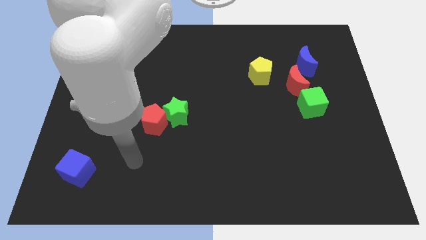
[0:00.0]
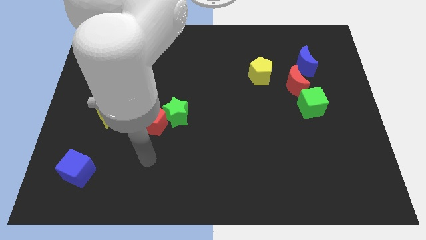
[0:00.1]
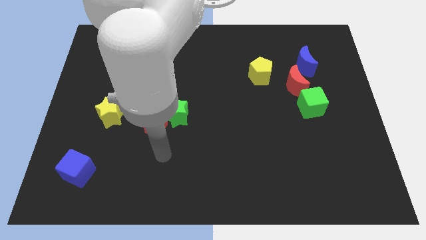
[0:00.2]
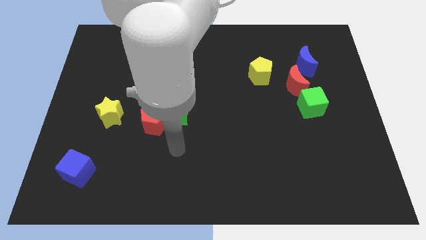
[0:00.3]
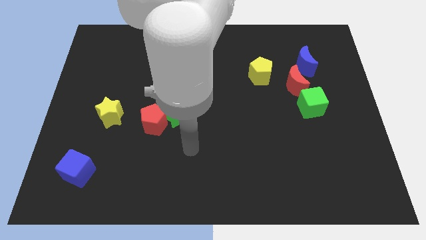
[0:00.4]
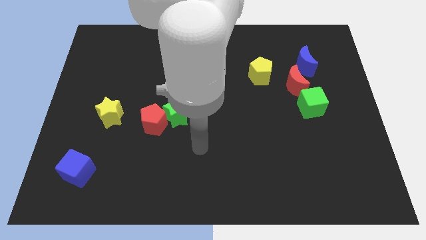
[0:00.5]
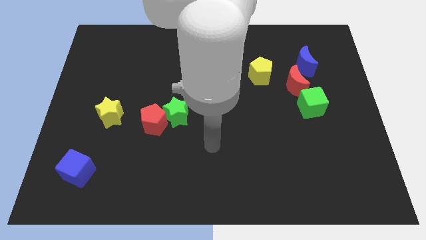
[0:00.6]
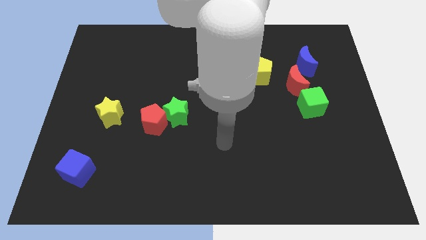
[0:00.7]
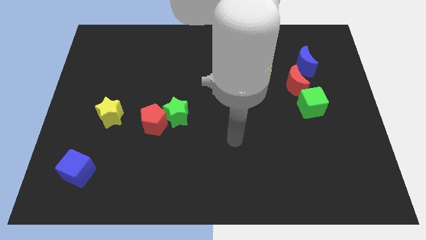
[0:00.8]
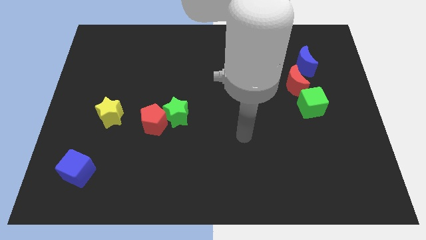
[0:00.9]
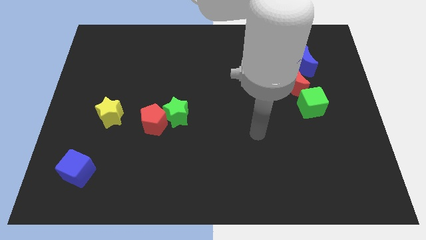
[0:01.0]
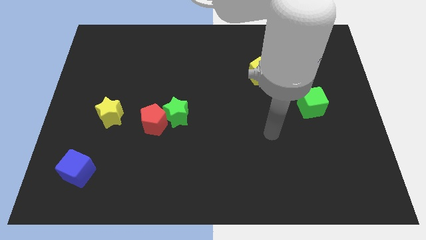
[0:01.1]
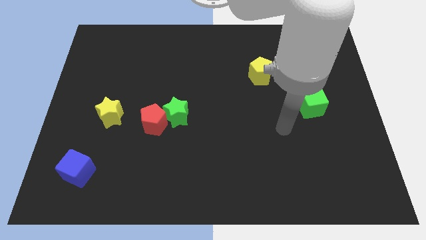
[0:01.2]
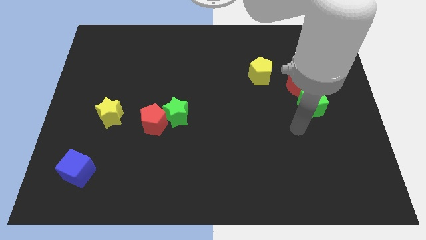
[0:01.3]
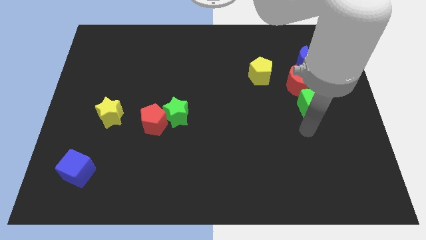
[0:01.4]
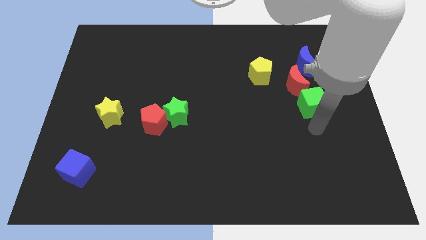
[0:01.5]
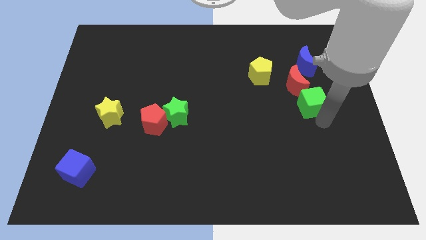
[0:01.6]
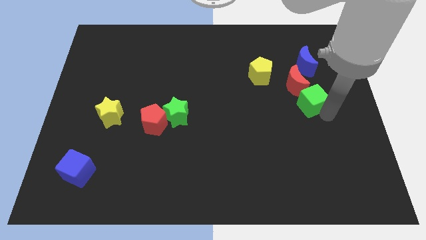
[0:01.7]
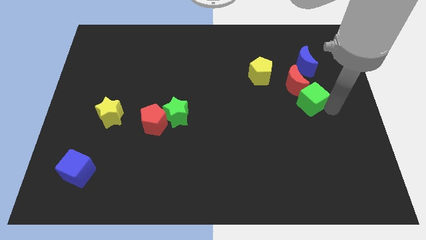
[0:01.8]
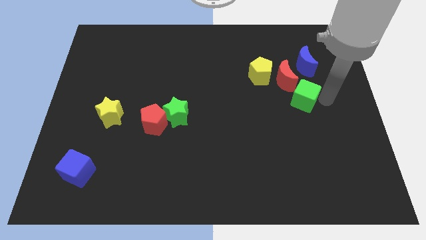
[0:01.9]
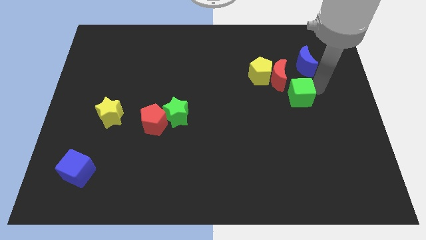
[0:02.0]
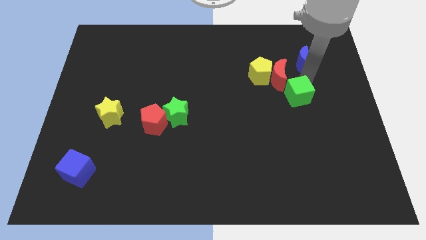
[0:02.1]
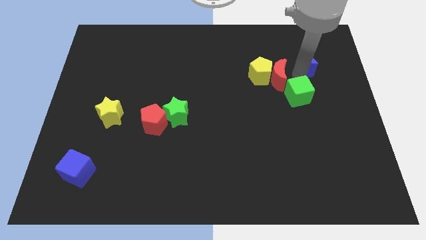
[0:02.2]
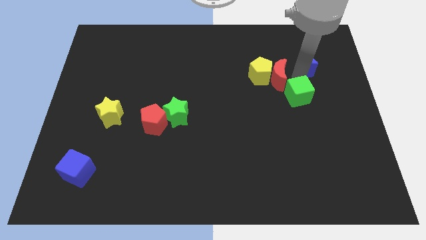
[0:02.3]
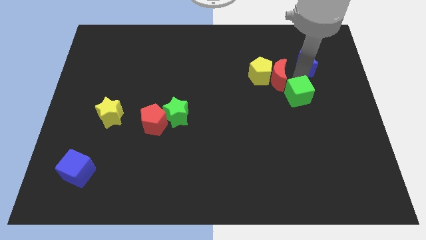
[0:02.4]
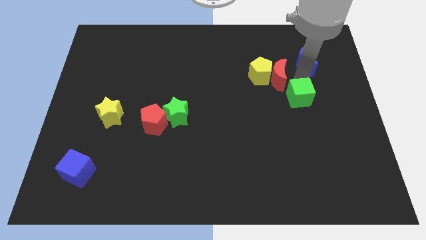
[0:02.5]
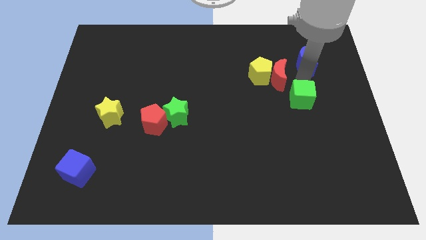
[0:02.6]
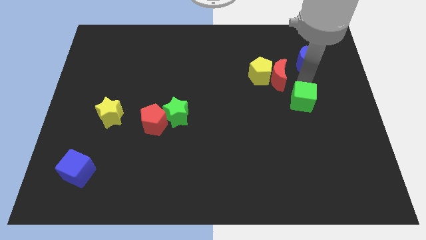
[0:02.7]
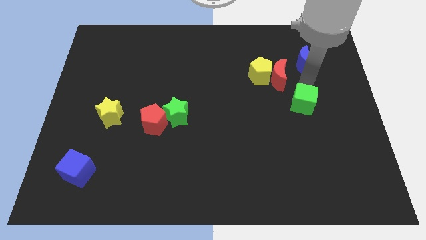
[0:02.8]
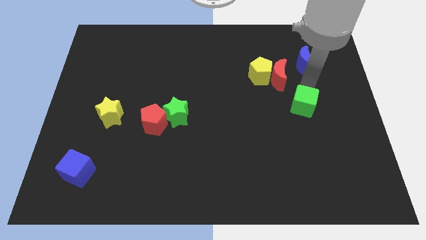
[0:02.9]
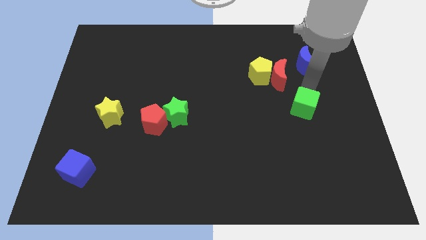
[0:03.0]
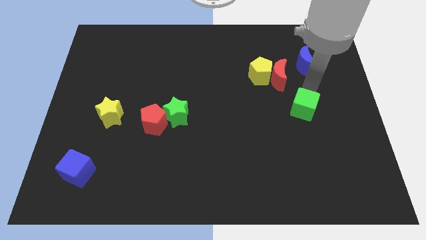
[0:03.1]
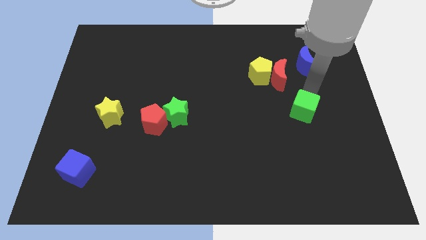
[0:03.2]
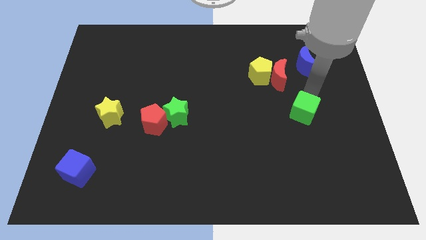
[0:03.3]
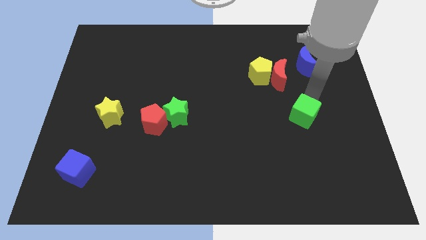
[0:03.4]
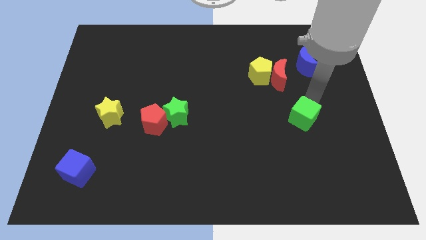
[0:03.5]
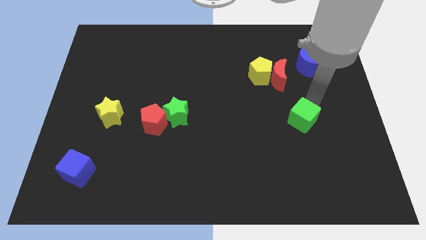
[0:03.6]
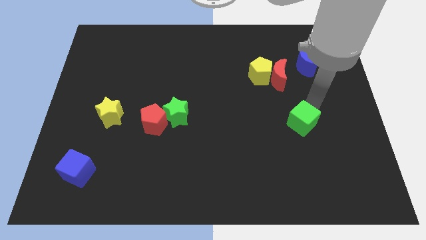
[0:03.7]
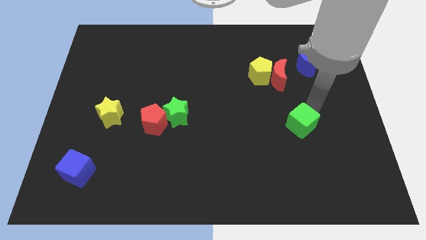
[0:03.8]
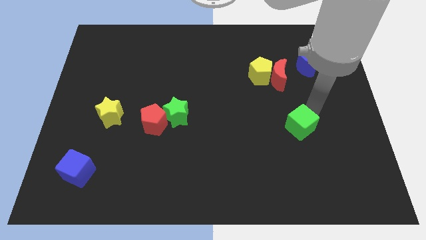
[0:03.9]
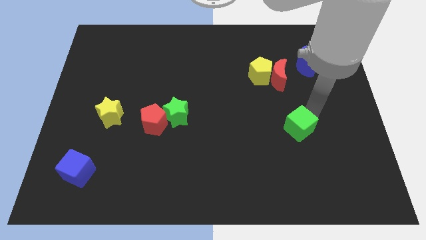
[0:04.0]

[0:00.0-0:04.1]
push the green cube somewhat diagonally downwards and to the left

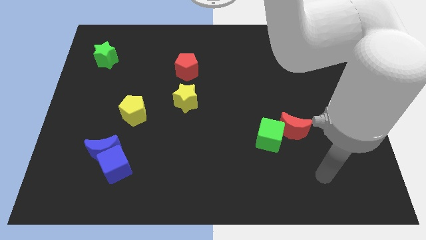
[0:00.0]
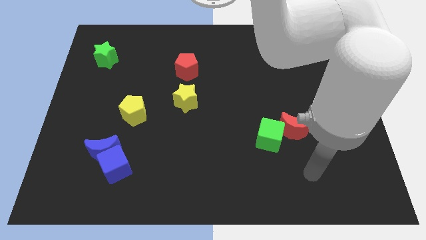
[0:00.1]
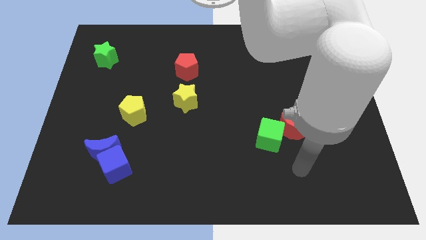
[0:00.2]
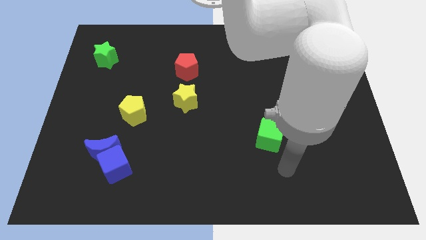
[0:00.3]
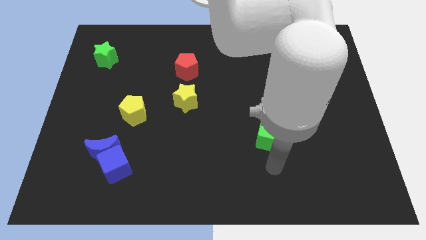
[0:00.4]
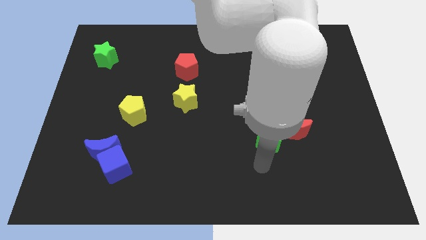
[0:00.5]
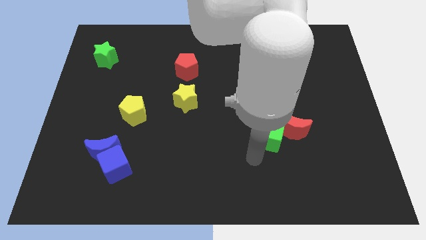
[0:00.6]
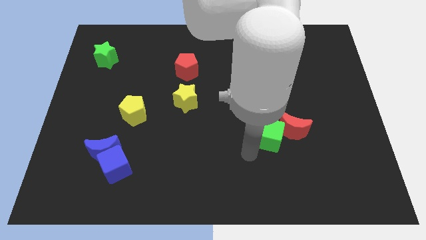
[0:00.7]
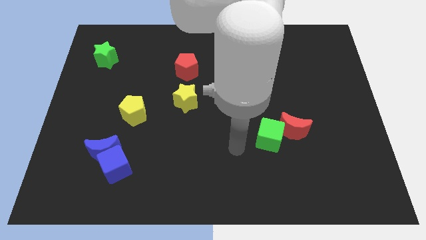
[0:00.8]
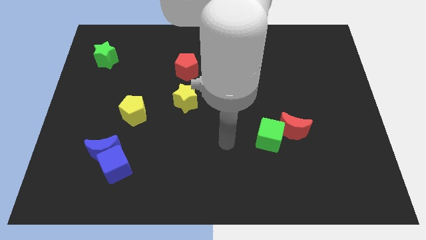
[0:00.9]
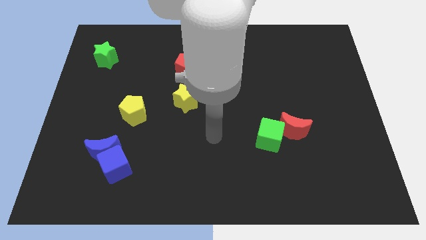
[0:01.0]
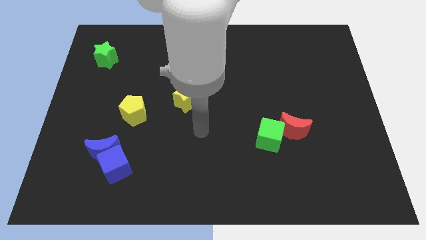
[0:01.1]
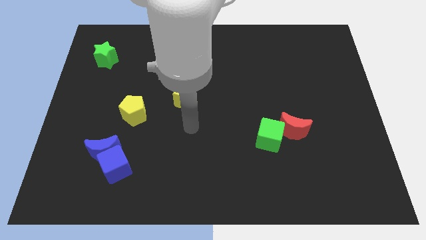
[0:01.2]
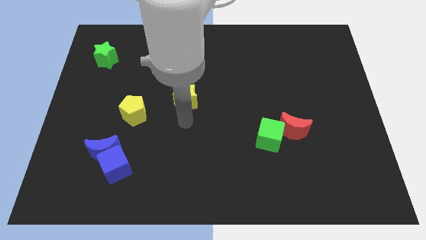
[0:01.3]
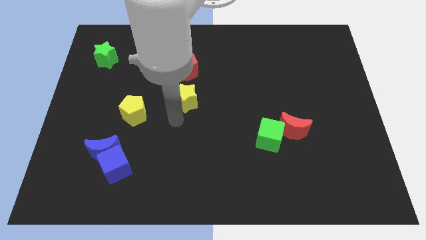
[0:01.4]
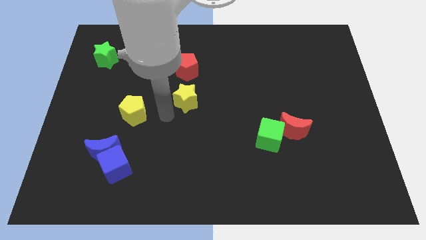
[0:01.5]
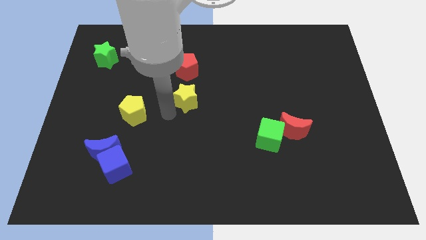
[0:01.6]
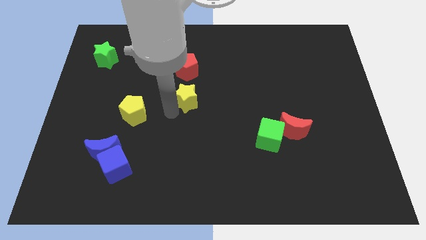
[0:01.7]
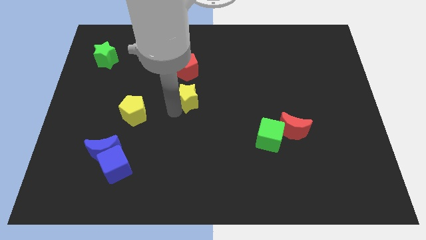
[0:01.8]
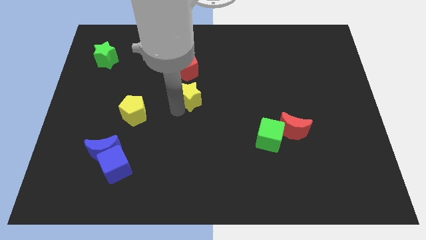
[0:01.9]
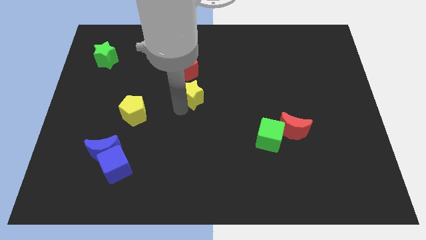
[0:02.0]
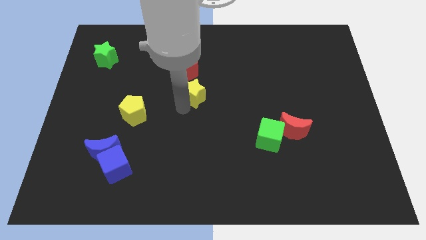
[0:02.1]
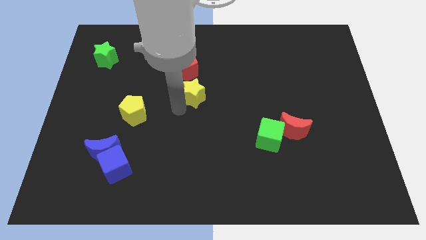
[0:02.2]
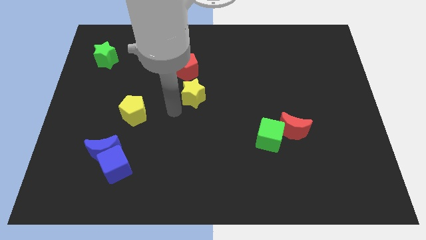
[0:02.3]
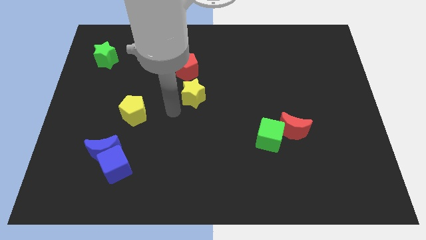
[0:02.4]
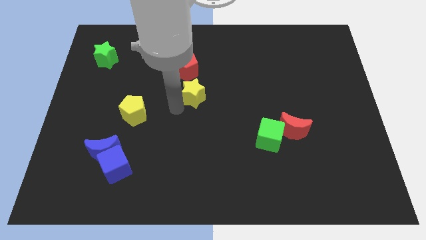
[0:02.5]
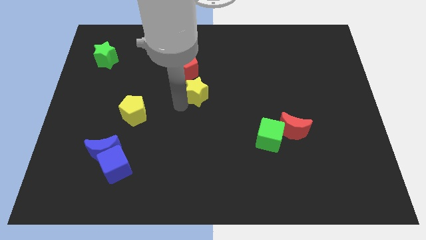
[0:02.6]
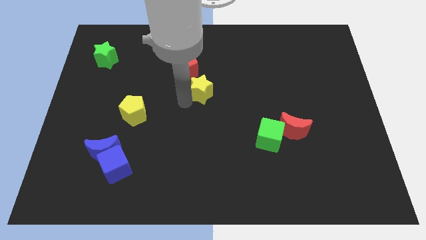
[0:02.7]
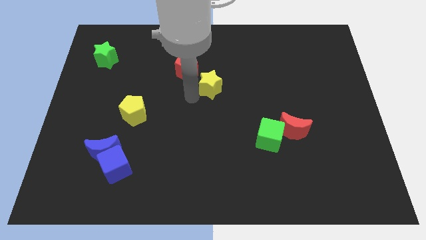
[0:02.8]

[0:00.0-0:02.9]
slide the yellow star slightly upwards and to the right diagonally

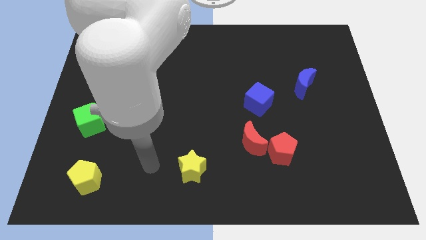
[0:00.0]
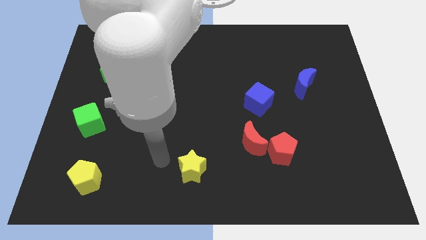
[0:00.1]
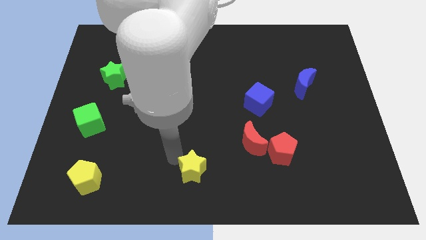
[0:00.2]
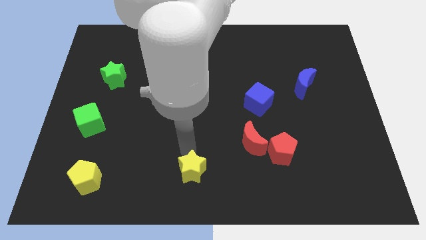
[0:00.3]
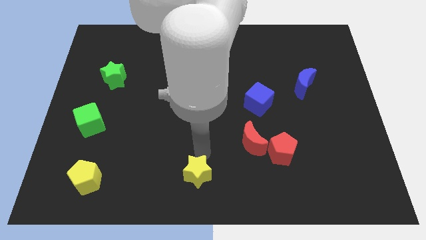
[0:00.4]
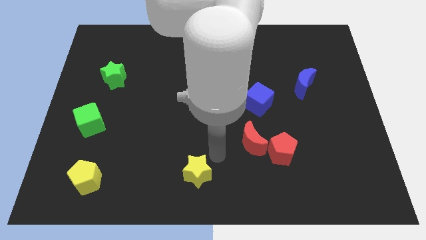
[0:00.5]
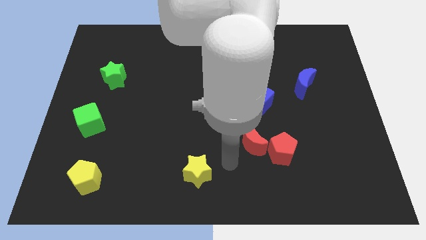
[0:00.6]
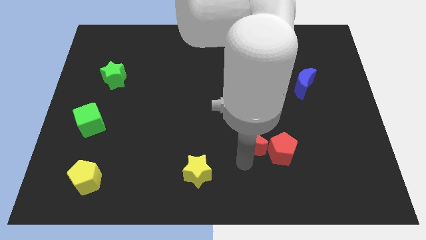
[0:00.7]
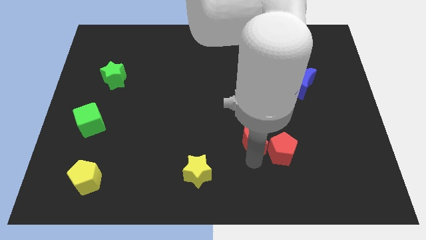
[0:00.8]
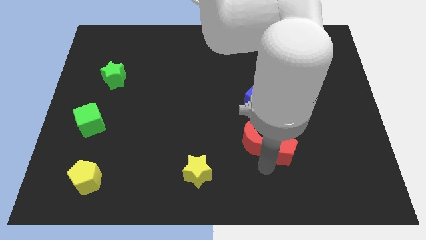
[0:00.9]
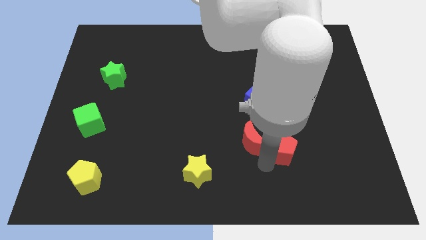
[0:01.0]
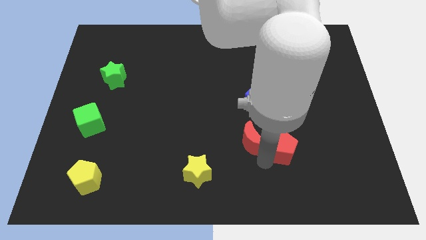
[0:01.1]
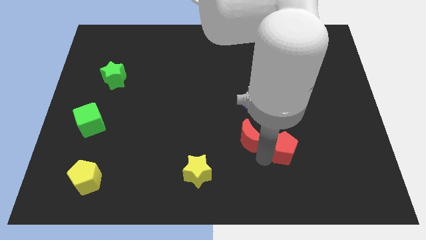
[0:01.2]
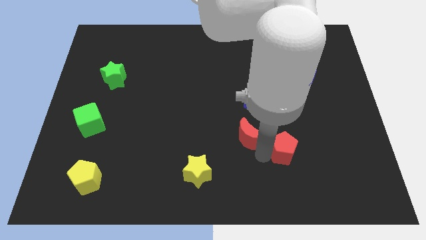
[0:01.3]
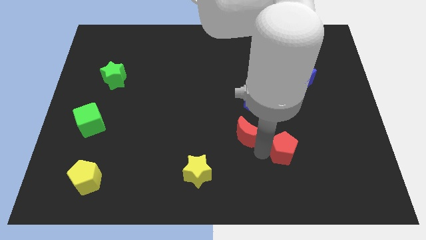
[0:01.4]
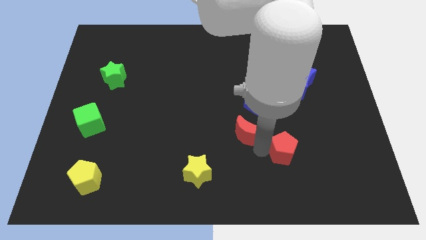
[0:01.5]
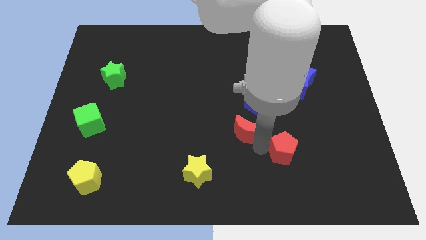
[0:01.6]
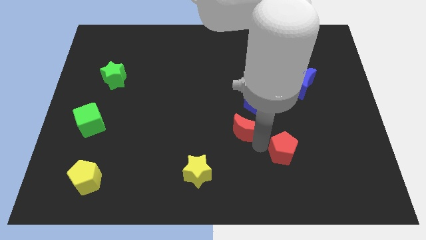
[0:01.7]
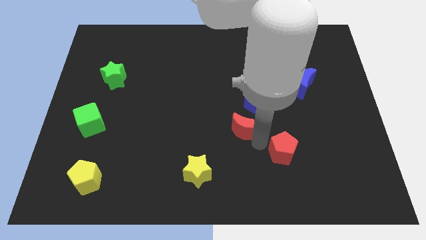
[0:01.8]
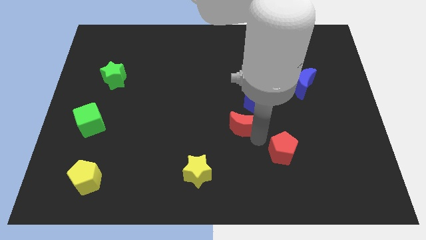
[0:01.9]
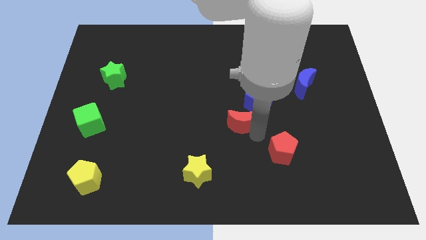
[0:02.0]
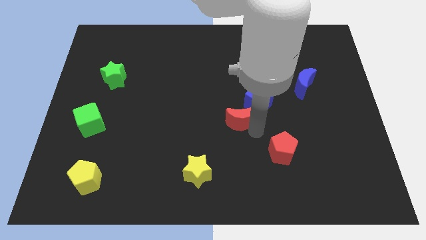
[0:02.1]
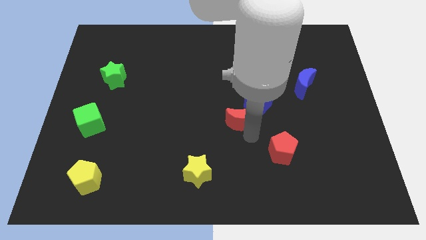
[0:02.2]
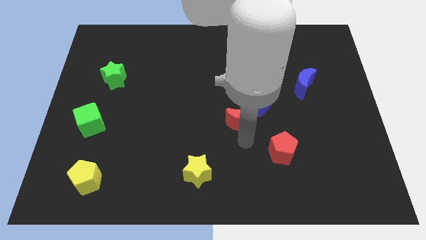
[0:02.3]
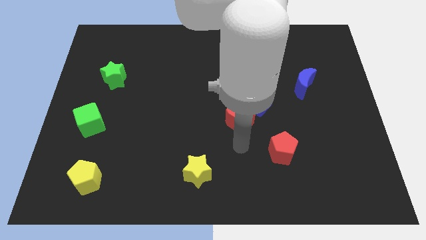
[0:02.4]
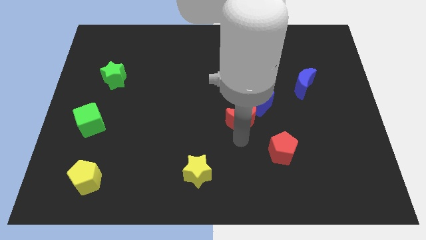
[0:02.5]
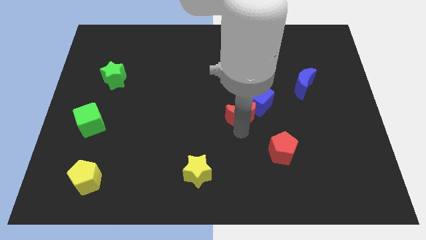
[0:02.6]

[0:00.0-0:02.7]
slide the red moon a little up
